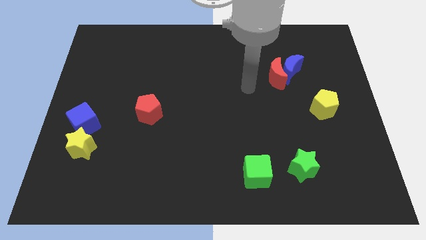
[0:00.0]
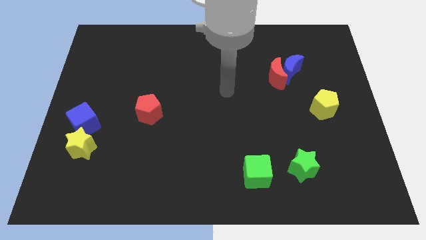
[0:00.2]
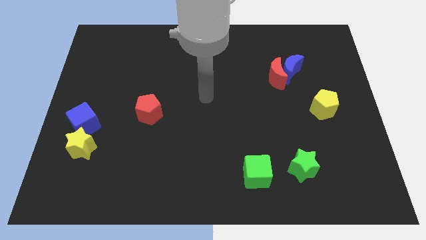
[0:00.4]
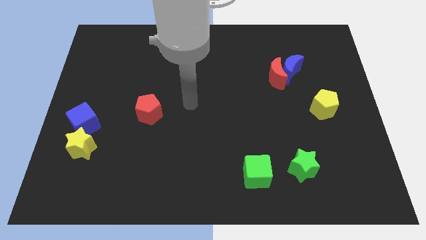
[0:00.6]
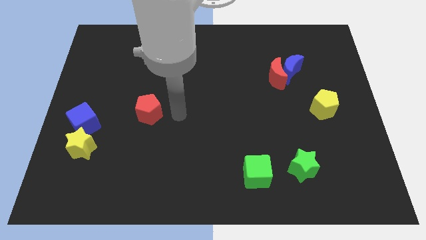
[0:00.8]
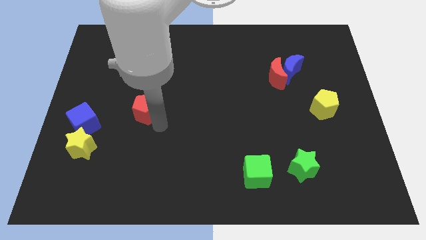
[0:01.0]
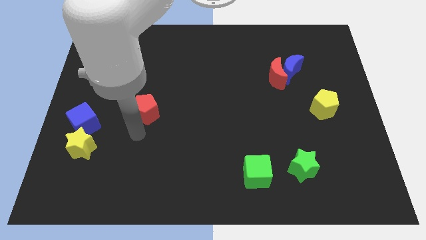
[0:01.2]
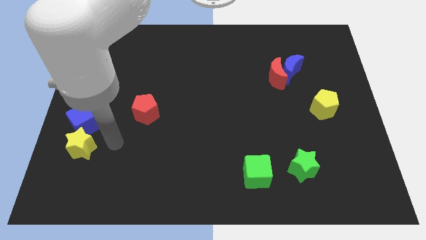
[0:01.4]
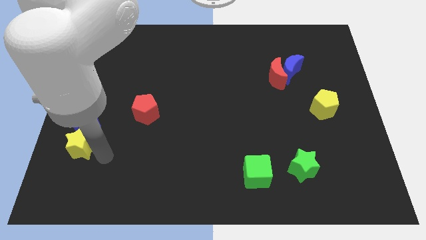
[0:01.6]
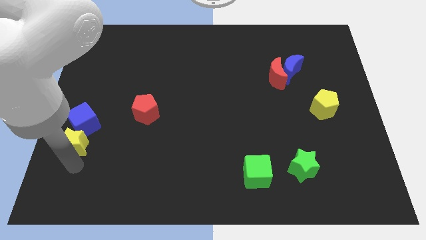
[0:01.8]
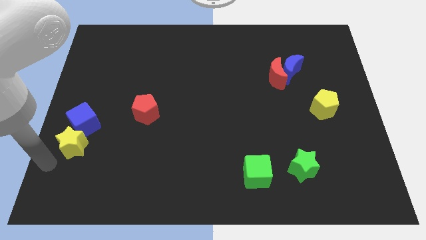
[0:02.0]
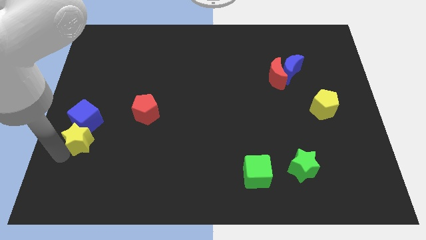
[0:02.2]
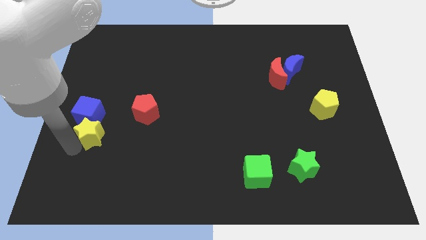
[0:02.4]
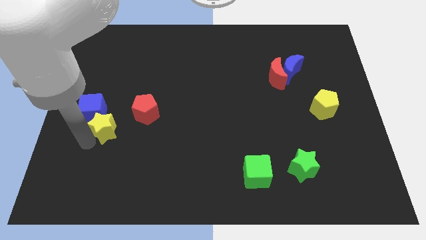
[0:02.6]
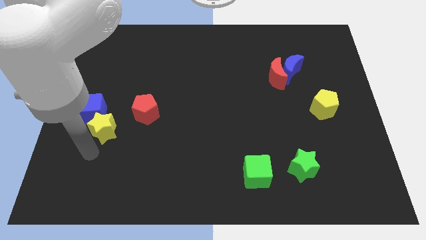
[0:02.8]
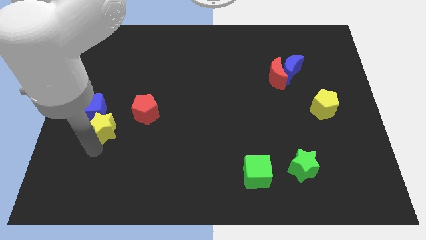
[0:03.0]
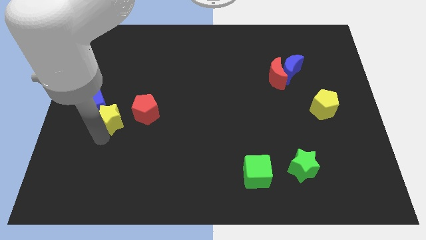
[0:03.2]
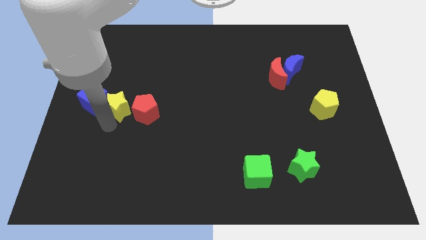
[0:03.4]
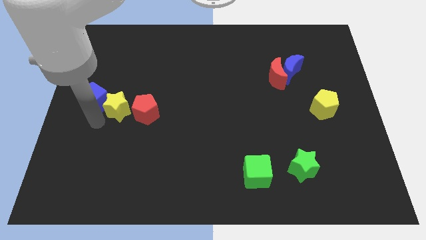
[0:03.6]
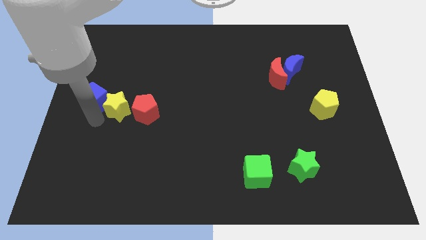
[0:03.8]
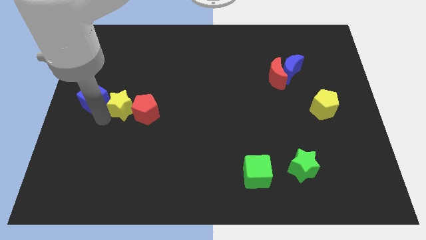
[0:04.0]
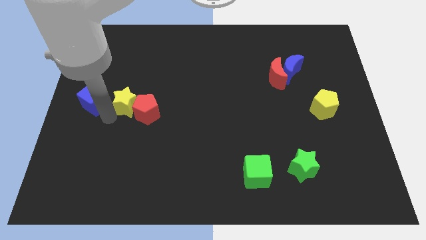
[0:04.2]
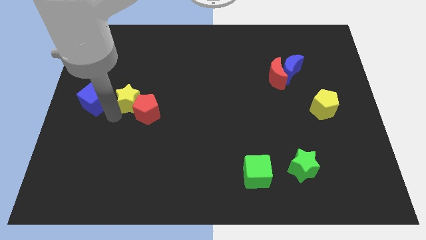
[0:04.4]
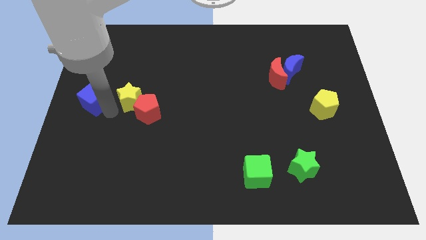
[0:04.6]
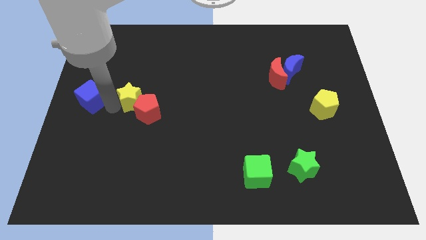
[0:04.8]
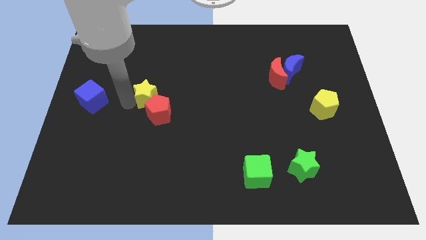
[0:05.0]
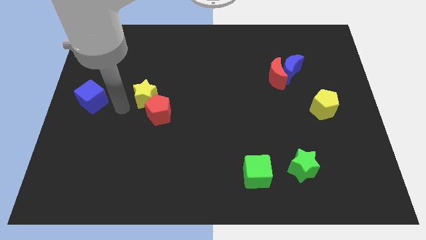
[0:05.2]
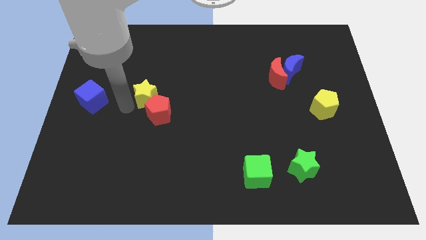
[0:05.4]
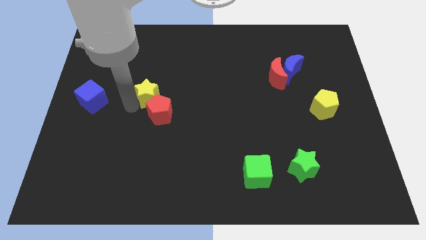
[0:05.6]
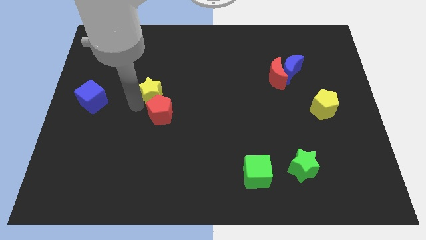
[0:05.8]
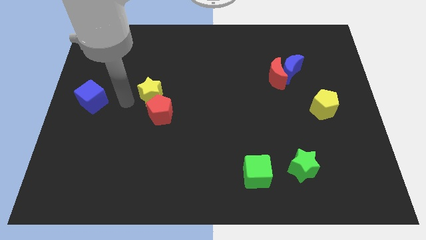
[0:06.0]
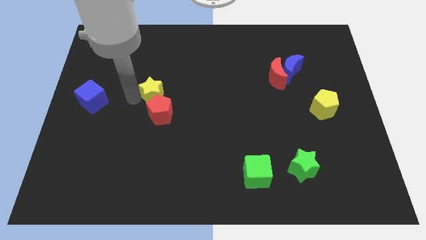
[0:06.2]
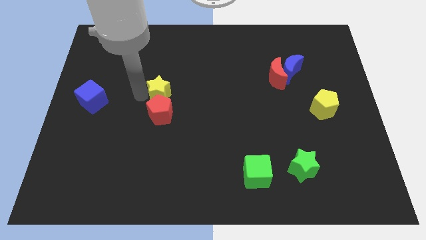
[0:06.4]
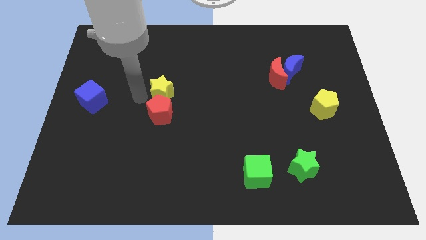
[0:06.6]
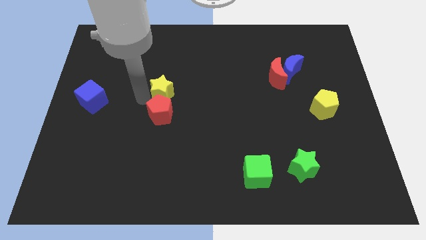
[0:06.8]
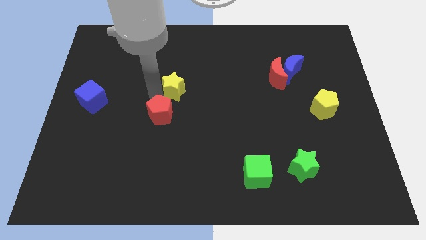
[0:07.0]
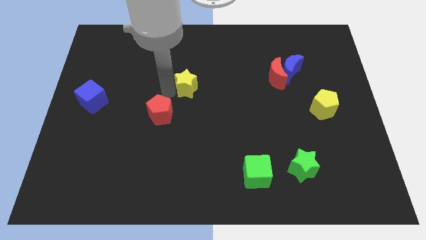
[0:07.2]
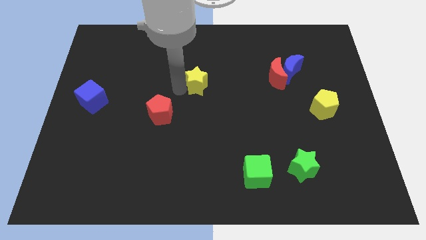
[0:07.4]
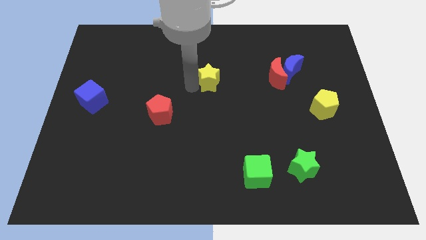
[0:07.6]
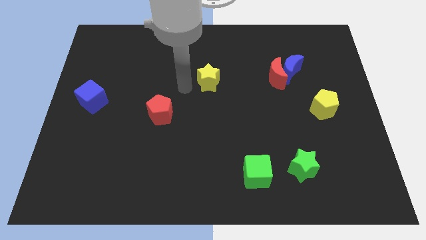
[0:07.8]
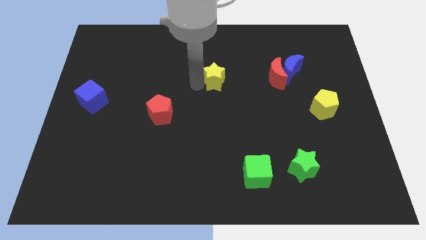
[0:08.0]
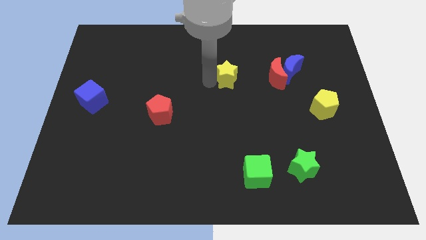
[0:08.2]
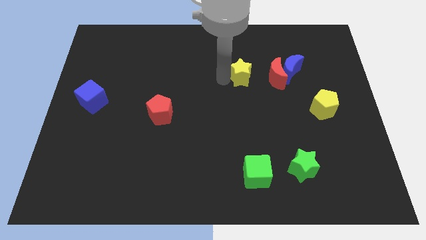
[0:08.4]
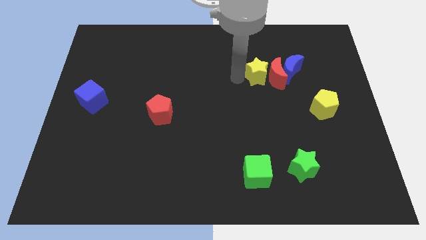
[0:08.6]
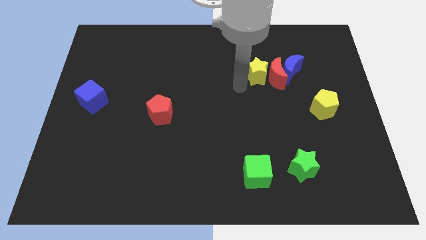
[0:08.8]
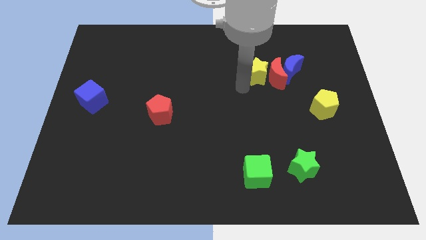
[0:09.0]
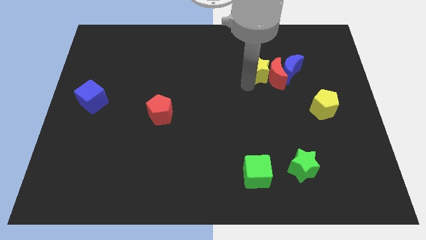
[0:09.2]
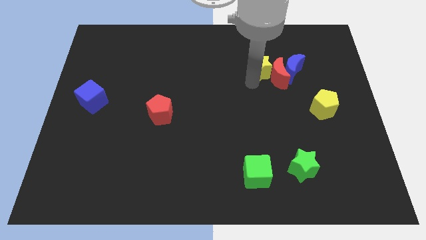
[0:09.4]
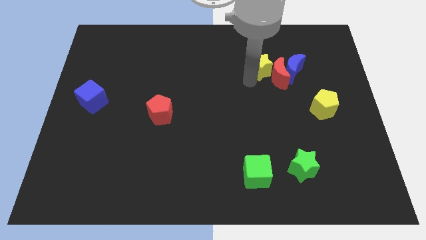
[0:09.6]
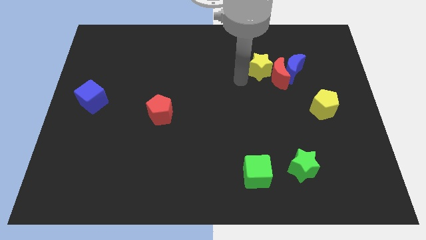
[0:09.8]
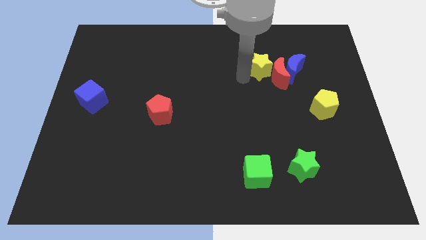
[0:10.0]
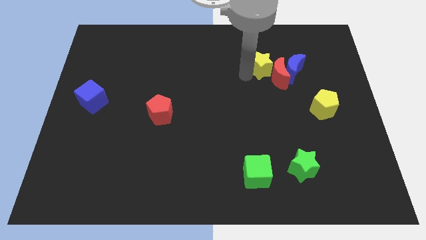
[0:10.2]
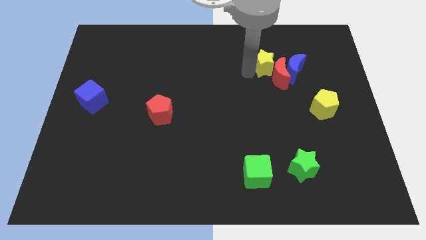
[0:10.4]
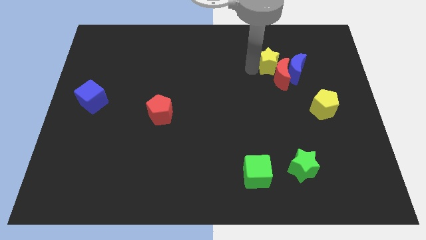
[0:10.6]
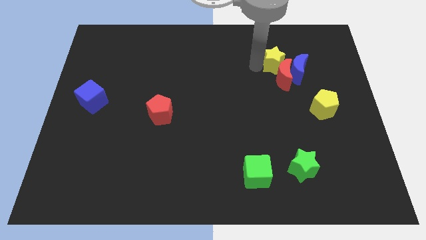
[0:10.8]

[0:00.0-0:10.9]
move the yellow star next to the blue moon

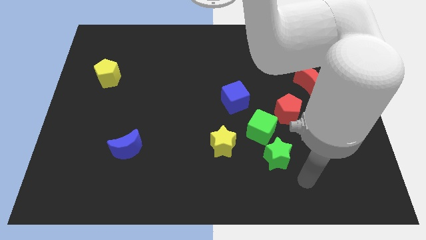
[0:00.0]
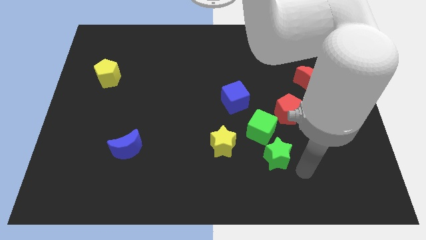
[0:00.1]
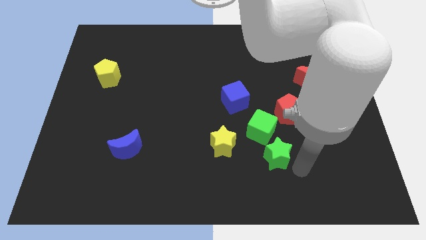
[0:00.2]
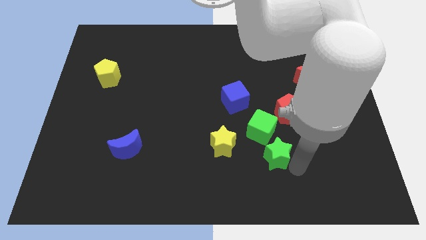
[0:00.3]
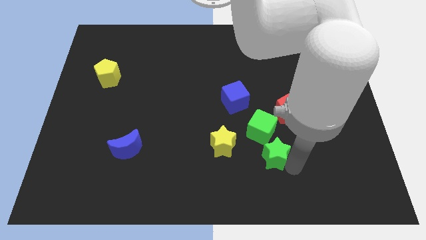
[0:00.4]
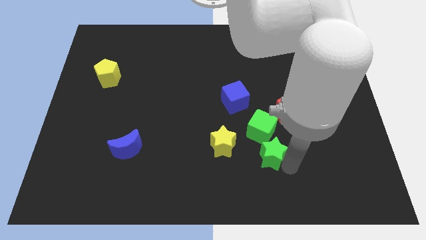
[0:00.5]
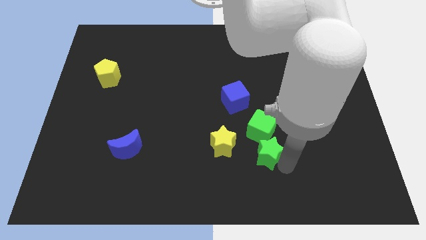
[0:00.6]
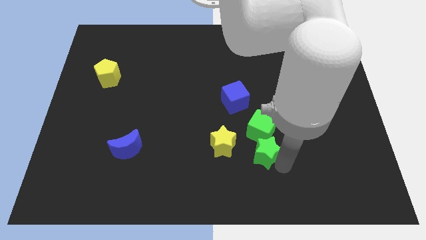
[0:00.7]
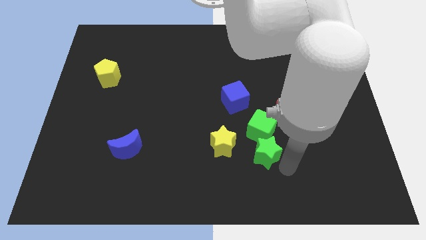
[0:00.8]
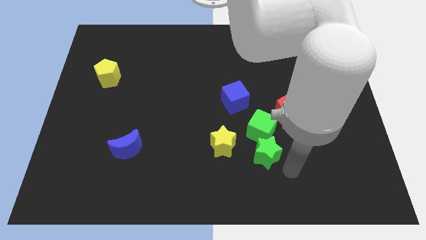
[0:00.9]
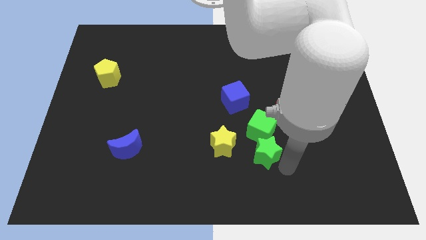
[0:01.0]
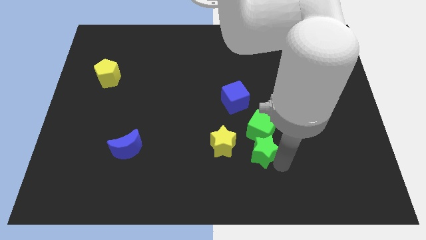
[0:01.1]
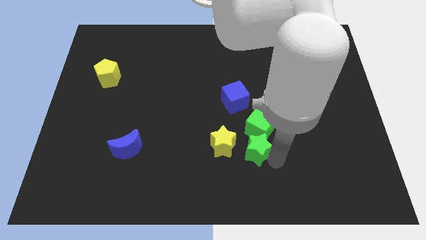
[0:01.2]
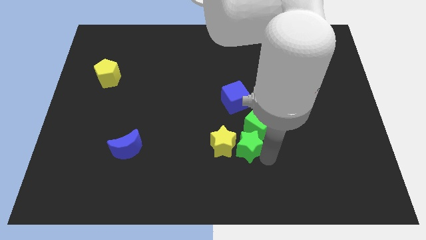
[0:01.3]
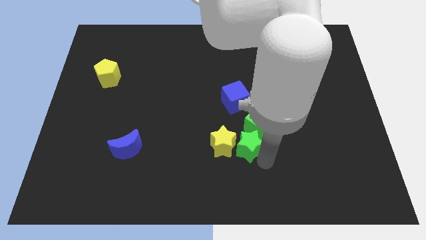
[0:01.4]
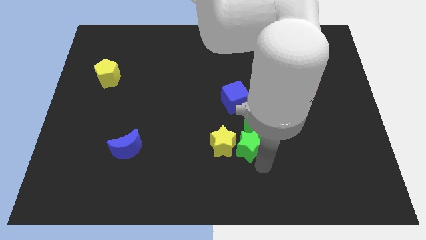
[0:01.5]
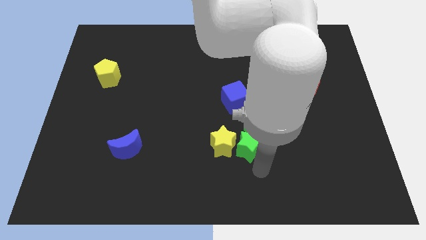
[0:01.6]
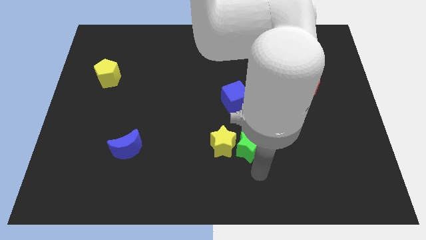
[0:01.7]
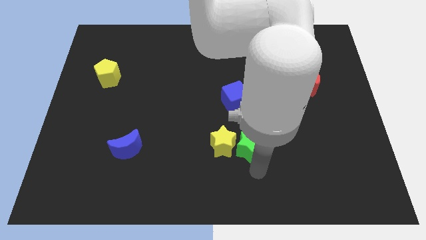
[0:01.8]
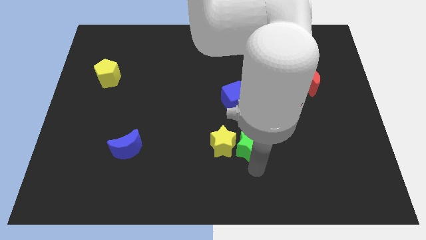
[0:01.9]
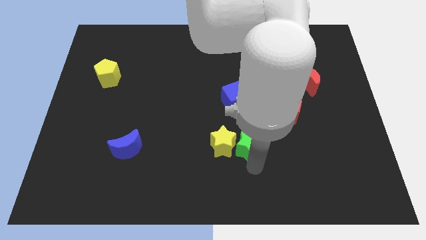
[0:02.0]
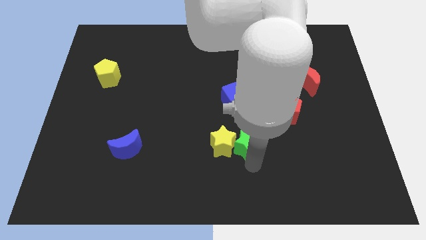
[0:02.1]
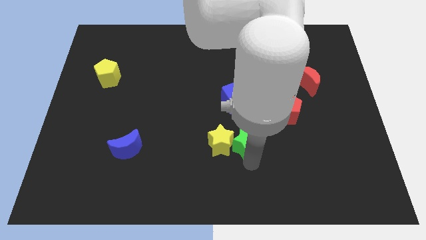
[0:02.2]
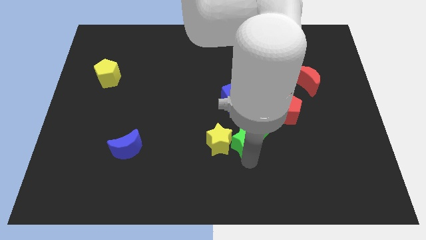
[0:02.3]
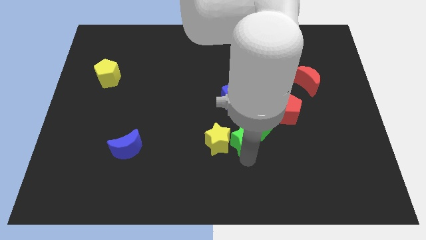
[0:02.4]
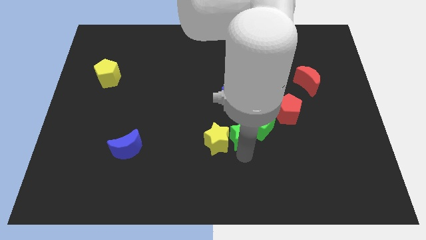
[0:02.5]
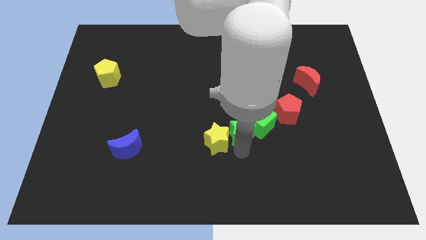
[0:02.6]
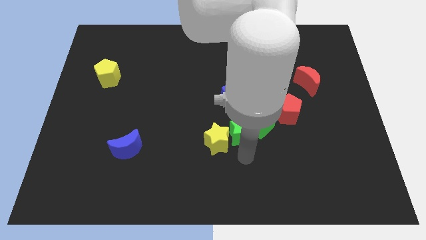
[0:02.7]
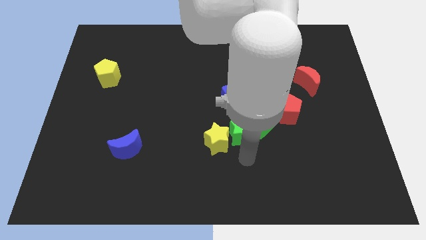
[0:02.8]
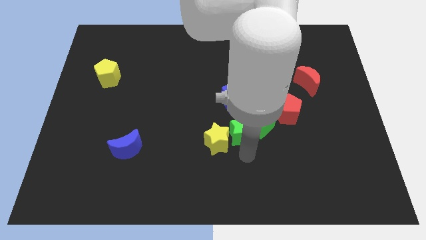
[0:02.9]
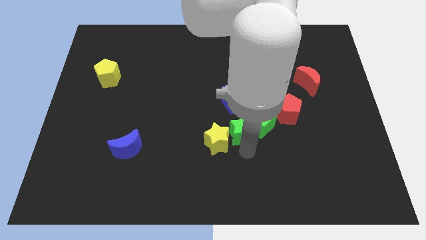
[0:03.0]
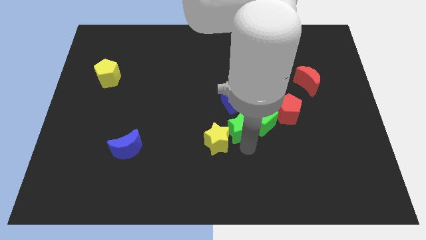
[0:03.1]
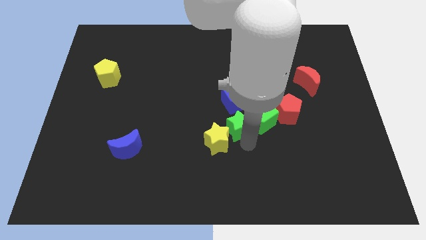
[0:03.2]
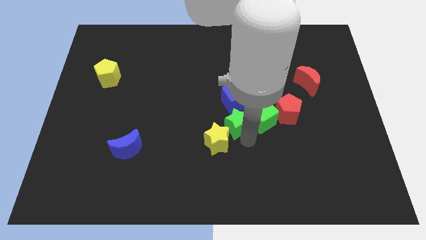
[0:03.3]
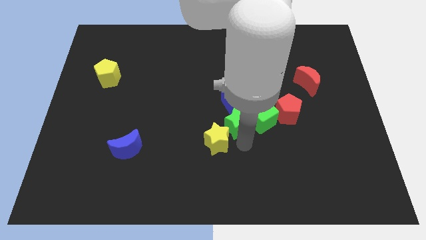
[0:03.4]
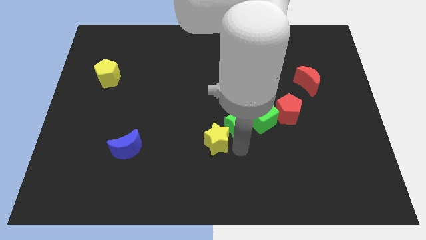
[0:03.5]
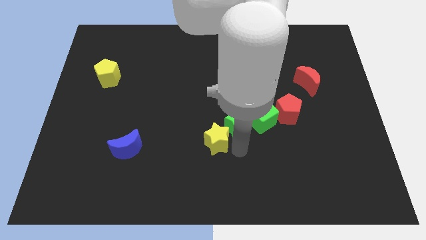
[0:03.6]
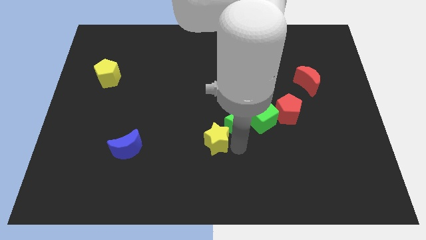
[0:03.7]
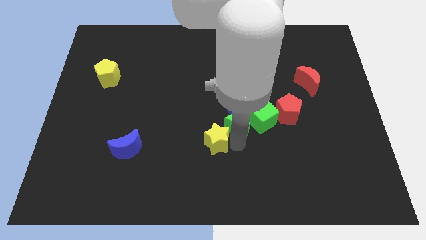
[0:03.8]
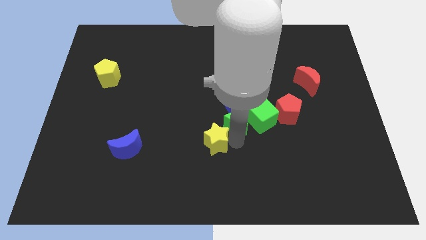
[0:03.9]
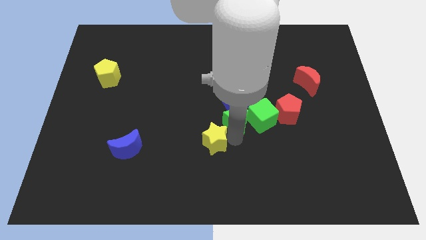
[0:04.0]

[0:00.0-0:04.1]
push the green star to the blue cube
